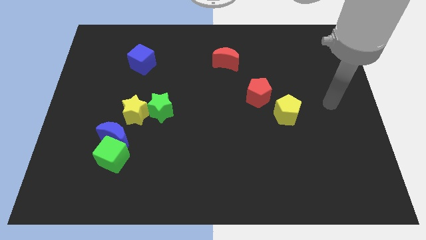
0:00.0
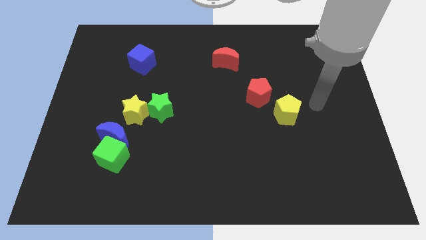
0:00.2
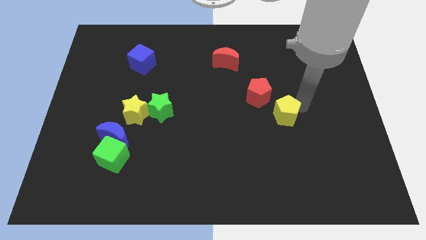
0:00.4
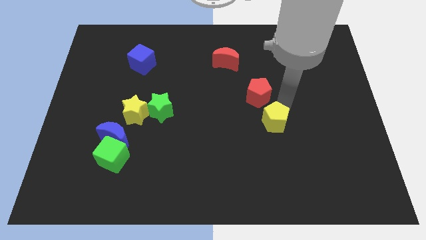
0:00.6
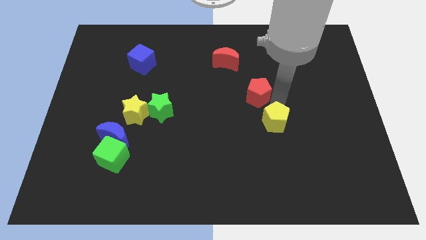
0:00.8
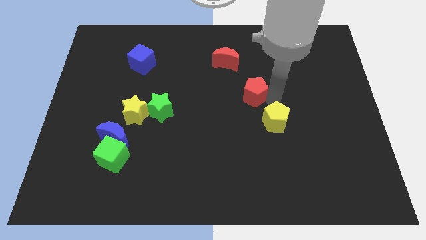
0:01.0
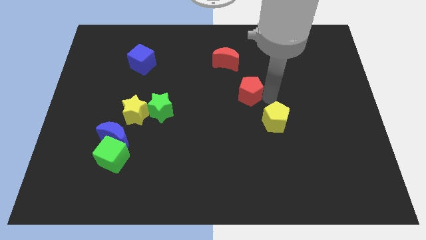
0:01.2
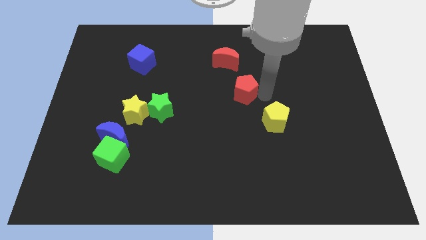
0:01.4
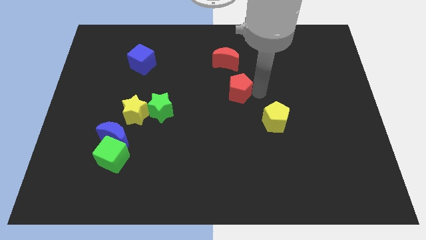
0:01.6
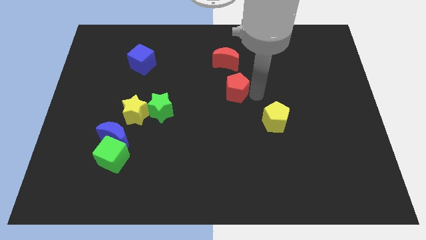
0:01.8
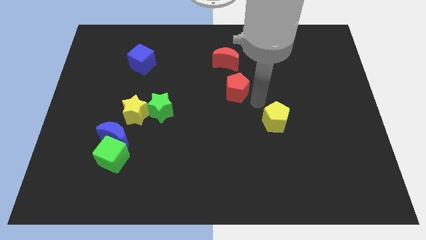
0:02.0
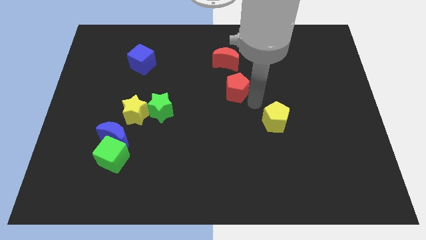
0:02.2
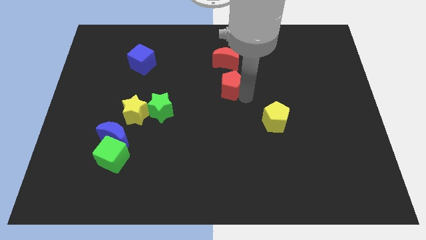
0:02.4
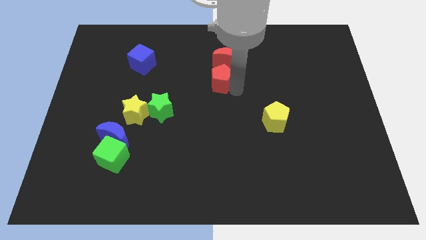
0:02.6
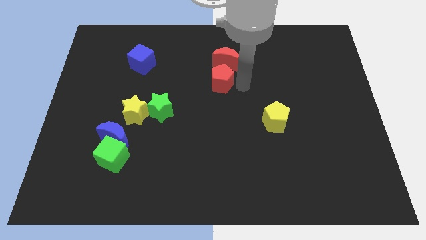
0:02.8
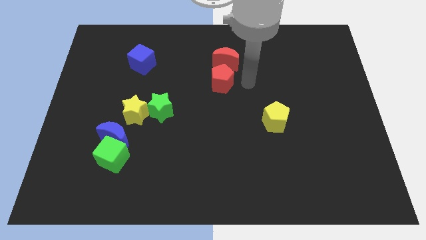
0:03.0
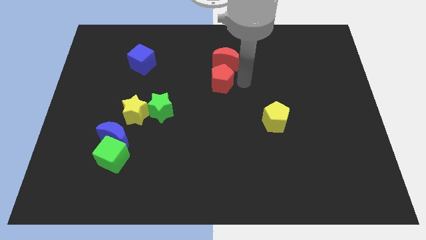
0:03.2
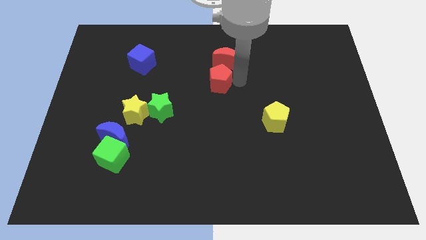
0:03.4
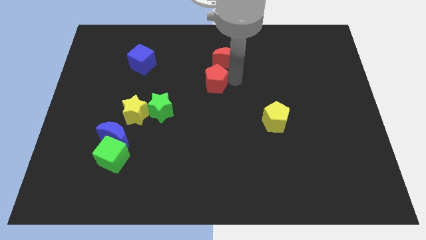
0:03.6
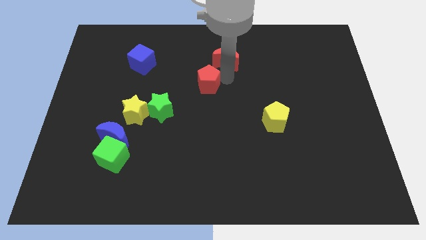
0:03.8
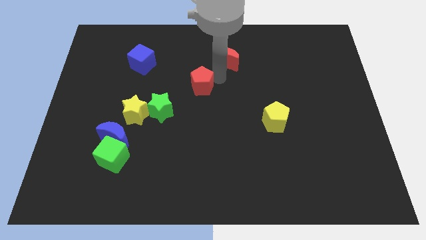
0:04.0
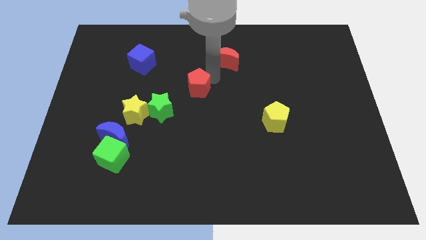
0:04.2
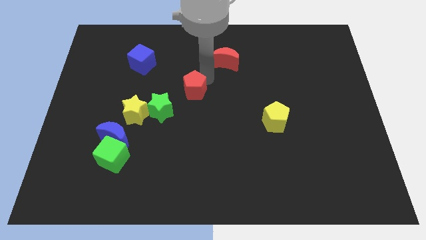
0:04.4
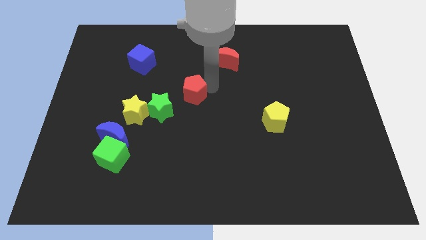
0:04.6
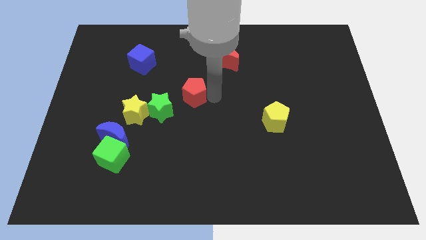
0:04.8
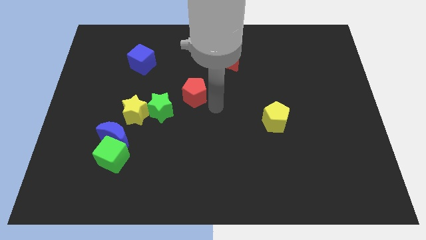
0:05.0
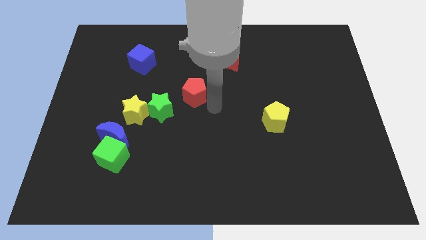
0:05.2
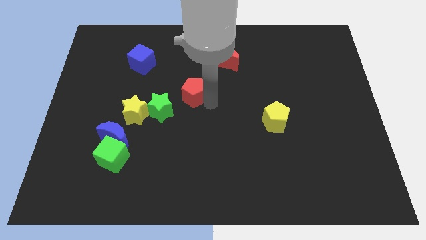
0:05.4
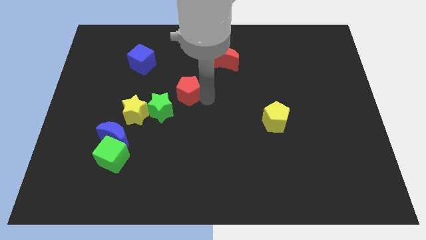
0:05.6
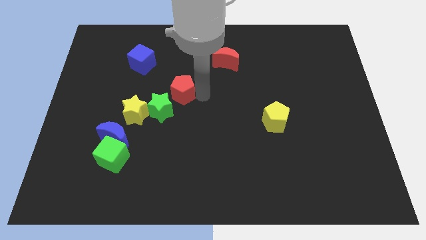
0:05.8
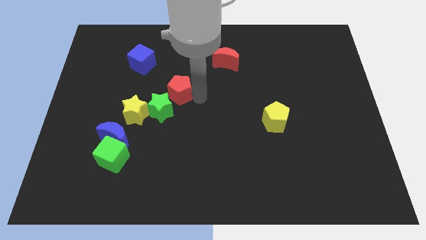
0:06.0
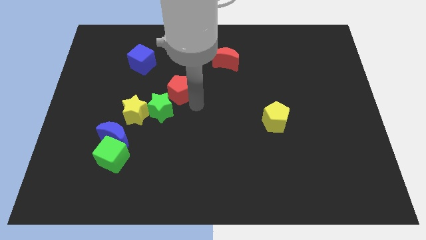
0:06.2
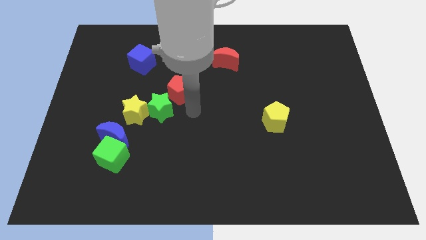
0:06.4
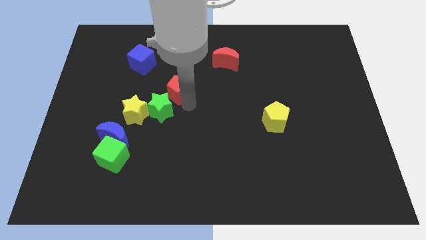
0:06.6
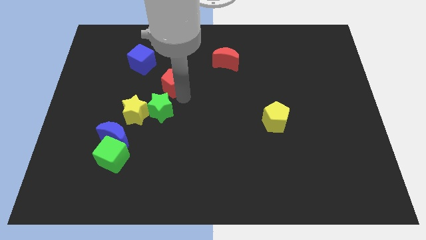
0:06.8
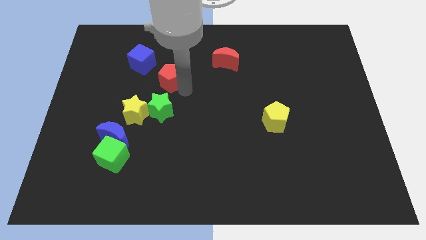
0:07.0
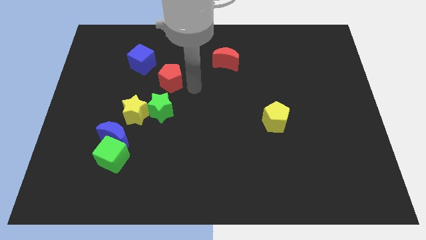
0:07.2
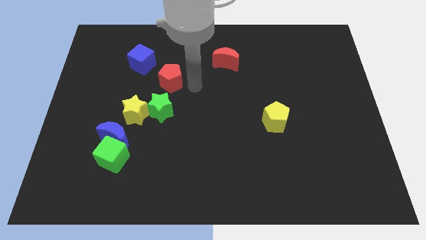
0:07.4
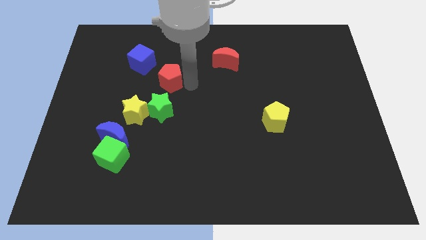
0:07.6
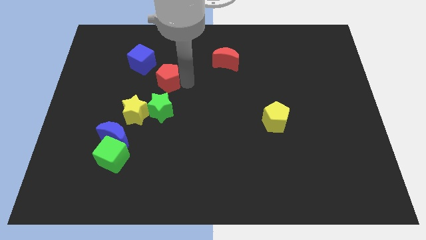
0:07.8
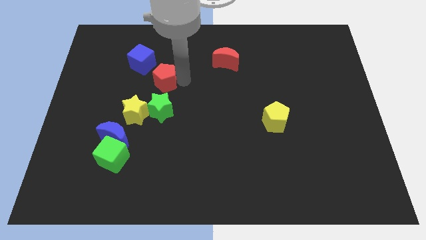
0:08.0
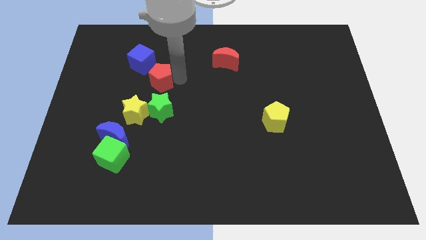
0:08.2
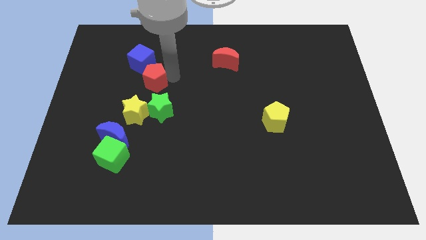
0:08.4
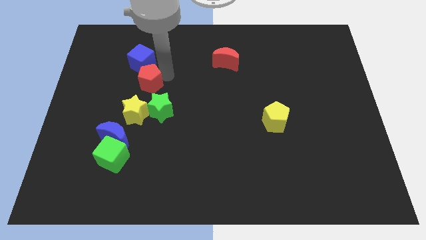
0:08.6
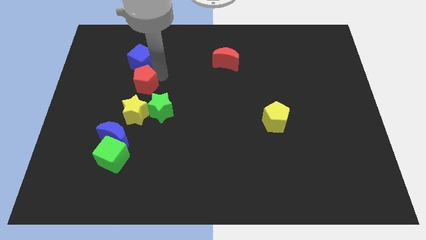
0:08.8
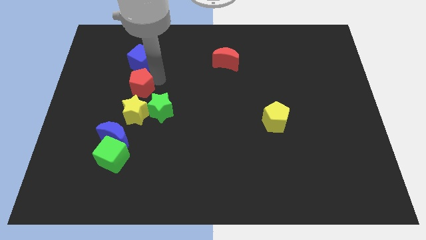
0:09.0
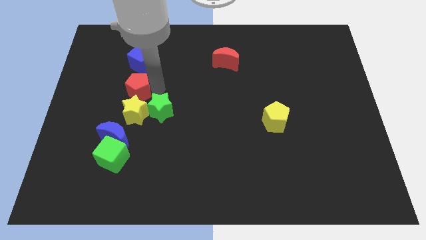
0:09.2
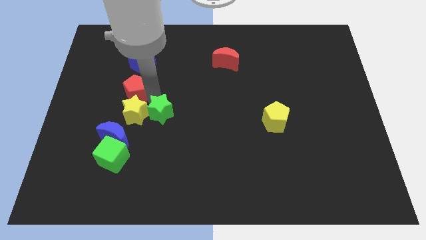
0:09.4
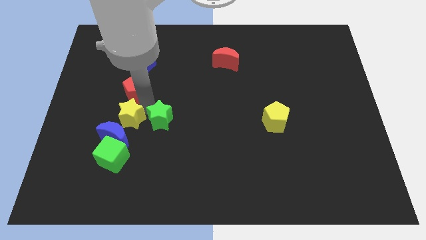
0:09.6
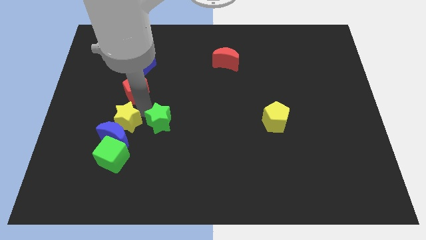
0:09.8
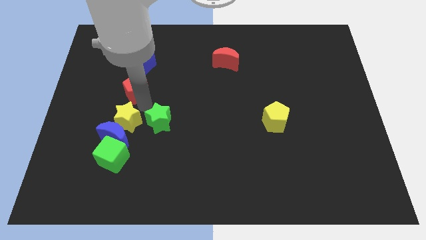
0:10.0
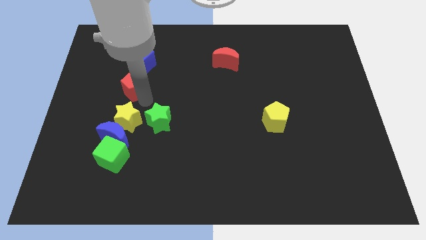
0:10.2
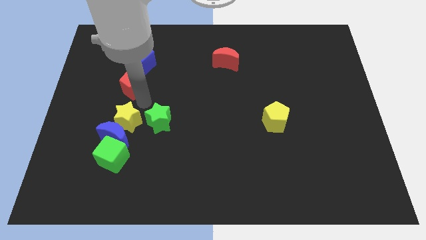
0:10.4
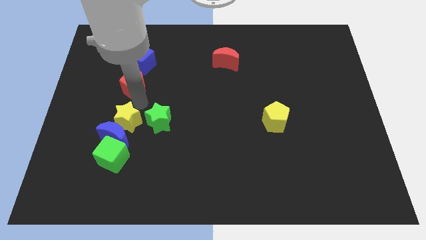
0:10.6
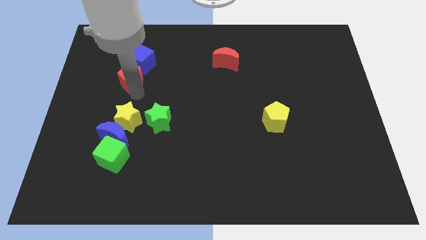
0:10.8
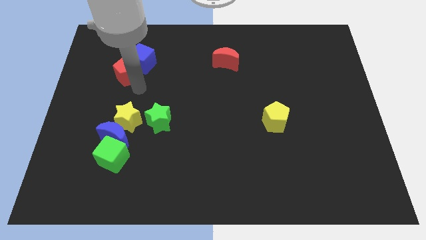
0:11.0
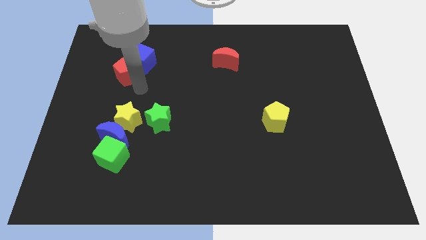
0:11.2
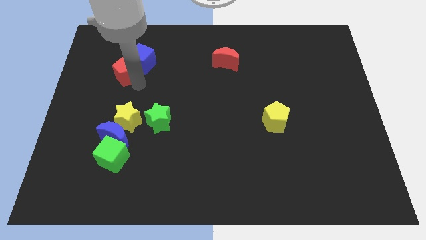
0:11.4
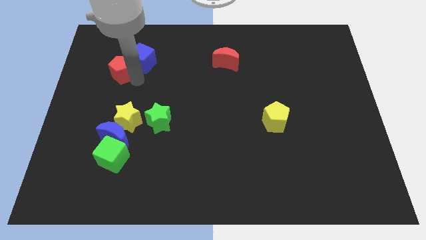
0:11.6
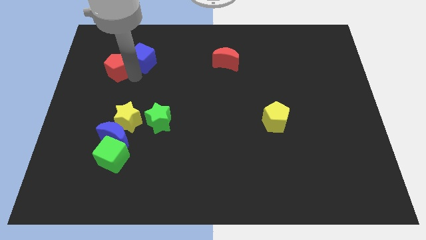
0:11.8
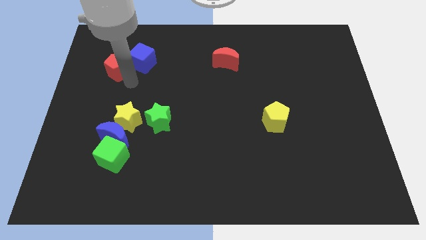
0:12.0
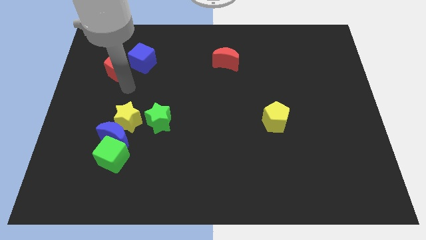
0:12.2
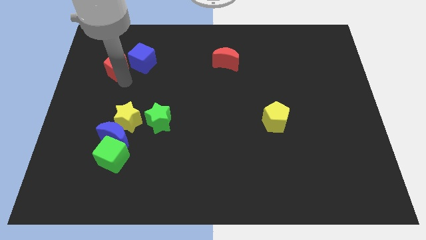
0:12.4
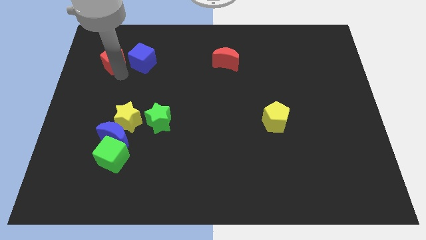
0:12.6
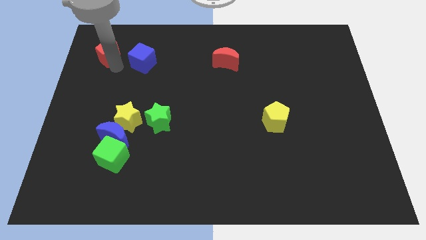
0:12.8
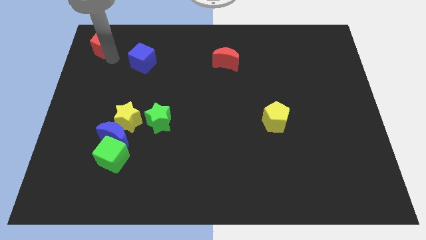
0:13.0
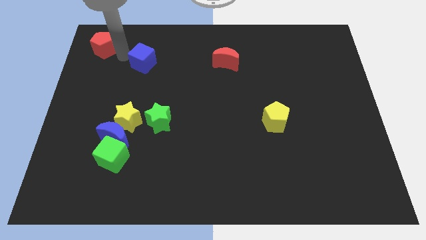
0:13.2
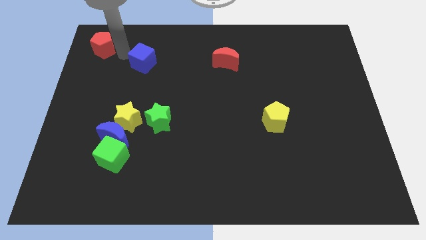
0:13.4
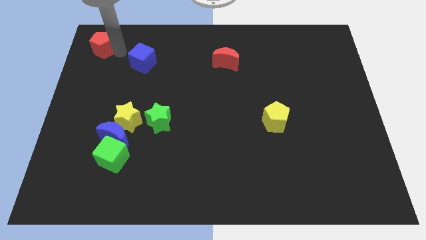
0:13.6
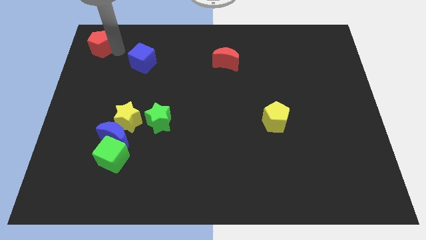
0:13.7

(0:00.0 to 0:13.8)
slide the red pentagon to the upper left corner
